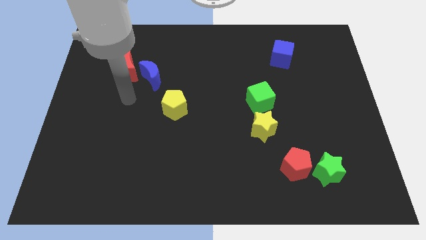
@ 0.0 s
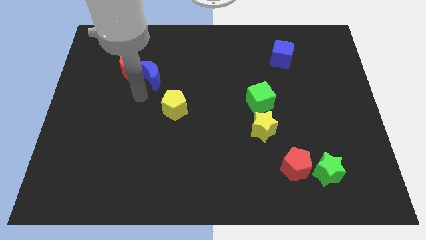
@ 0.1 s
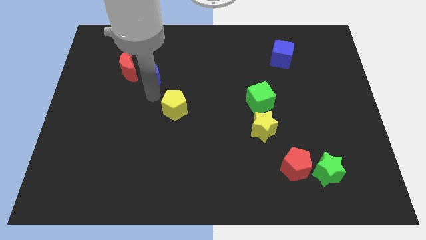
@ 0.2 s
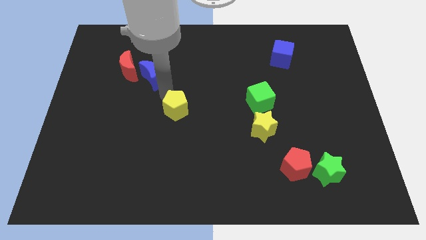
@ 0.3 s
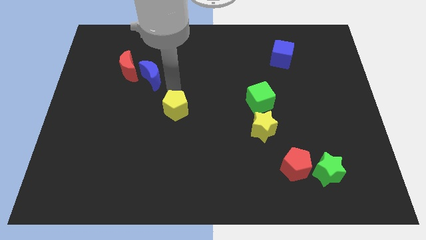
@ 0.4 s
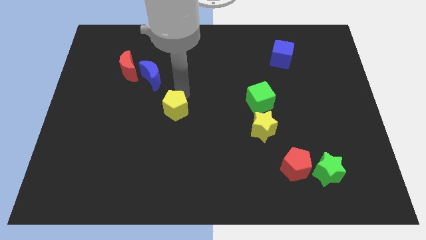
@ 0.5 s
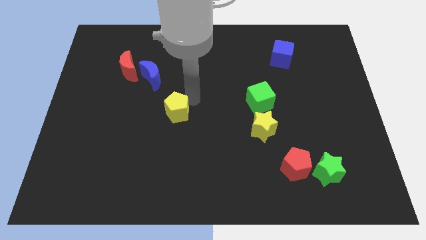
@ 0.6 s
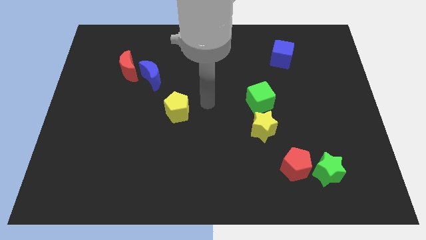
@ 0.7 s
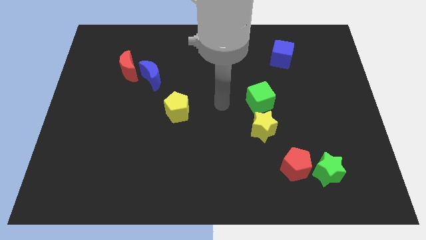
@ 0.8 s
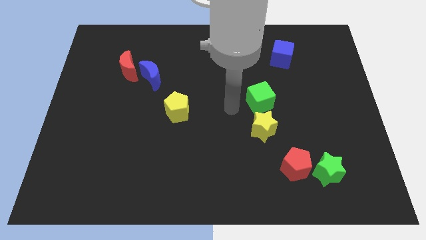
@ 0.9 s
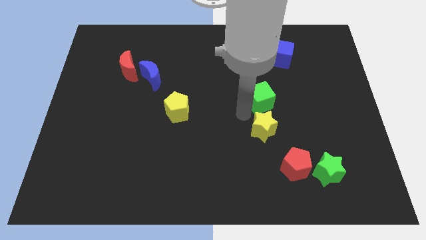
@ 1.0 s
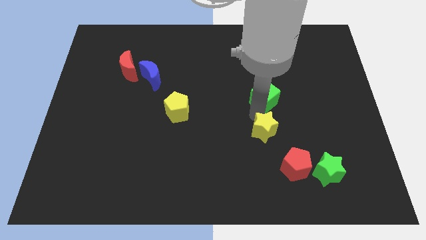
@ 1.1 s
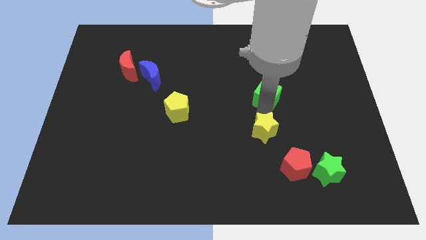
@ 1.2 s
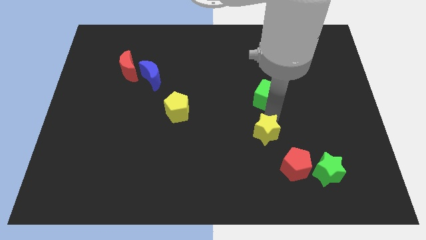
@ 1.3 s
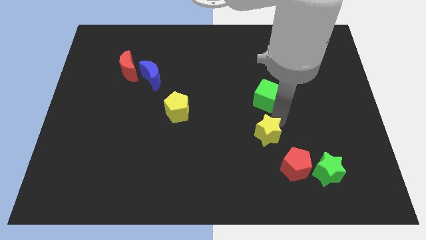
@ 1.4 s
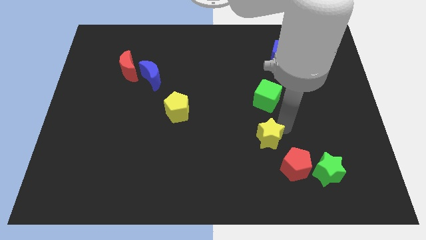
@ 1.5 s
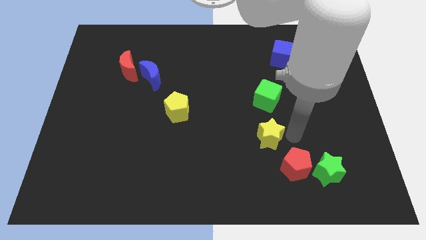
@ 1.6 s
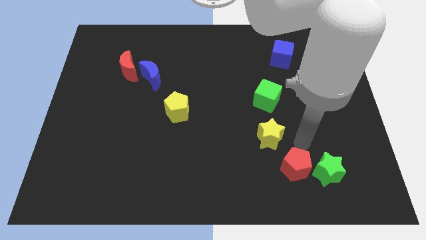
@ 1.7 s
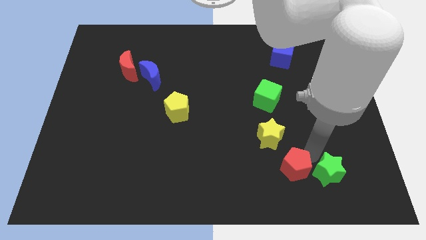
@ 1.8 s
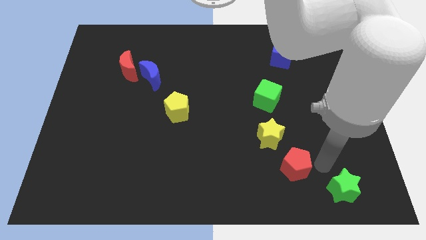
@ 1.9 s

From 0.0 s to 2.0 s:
pull the red pentagon apart from the green star

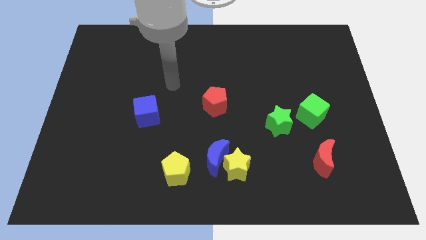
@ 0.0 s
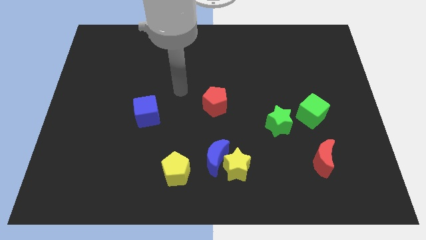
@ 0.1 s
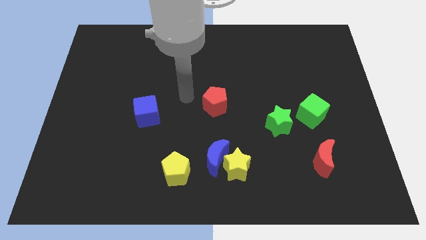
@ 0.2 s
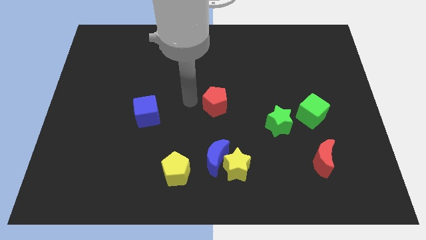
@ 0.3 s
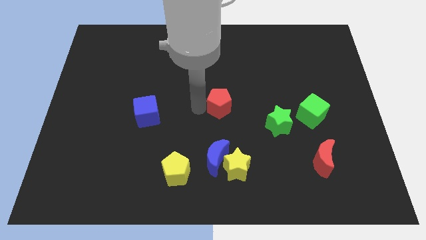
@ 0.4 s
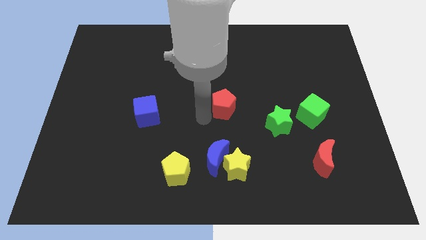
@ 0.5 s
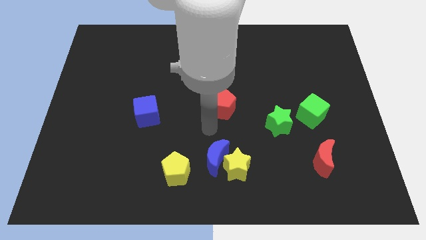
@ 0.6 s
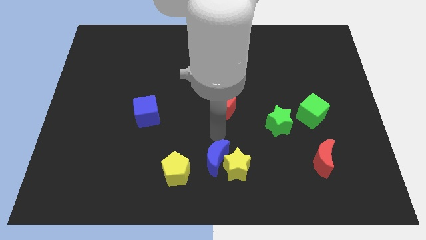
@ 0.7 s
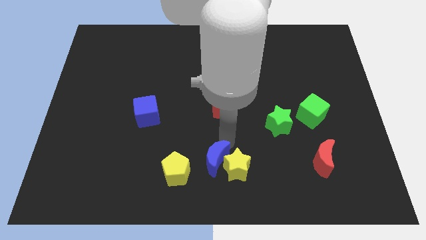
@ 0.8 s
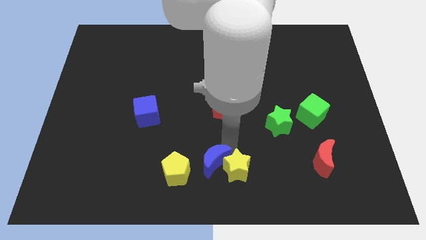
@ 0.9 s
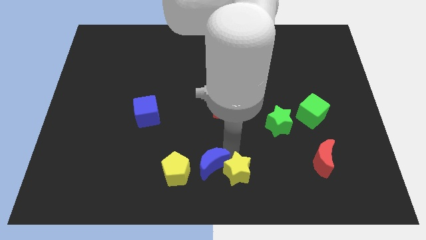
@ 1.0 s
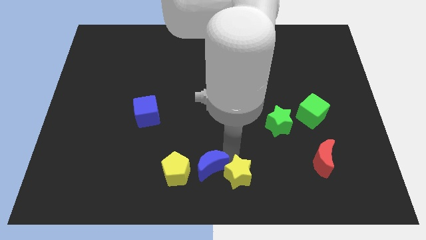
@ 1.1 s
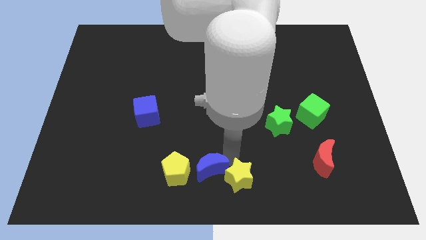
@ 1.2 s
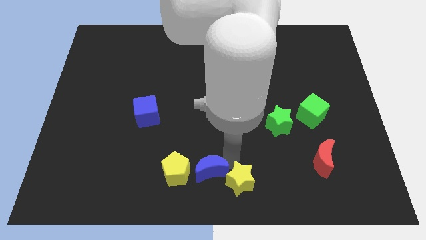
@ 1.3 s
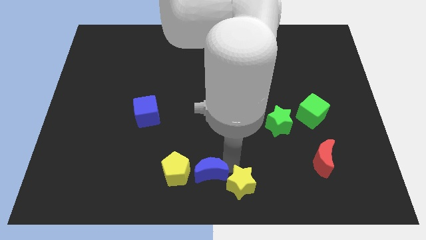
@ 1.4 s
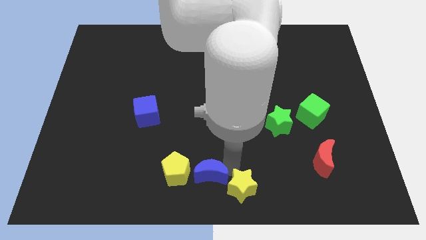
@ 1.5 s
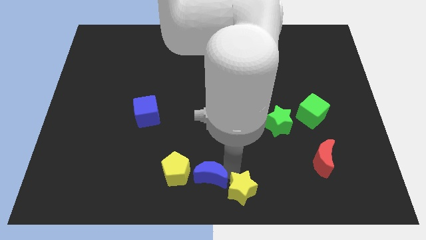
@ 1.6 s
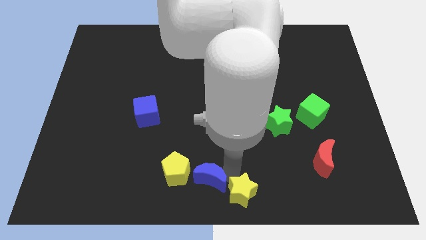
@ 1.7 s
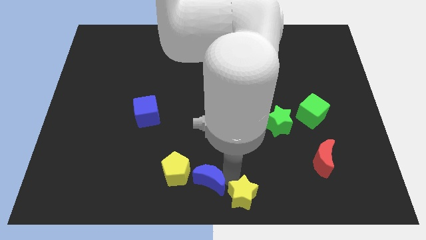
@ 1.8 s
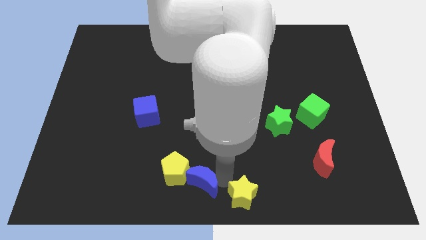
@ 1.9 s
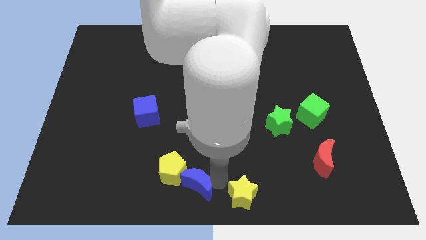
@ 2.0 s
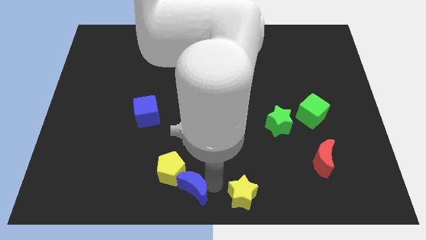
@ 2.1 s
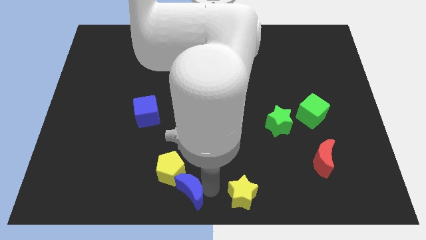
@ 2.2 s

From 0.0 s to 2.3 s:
separate the yellow star from the blue moon

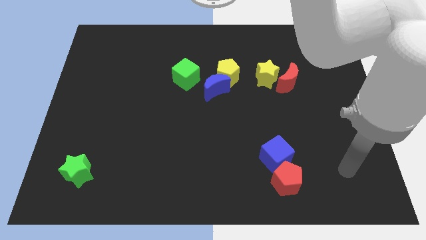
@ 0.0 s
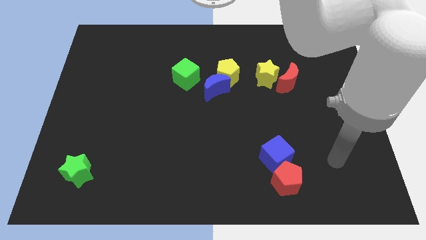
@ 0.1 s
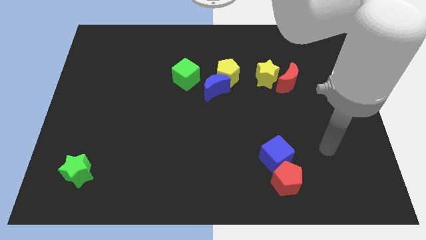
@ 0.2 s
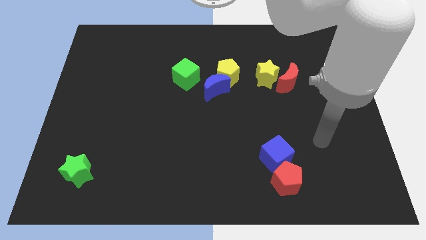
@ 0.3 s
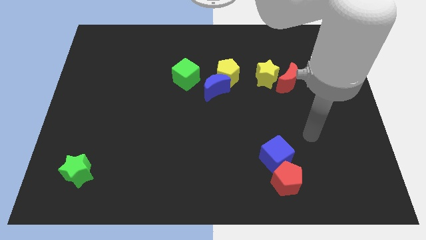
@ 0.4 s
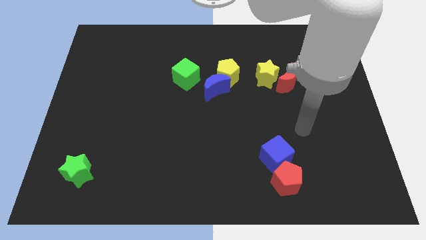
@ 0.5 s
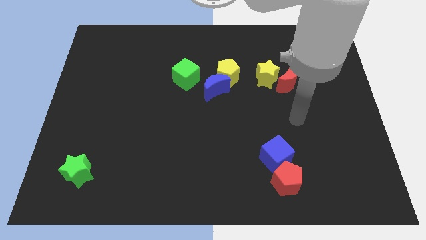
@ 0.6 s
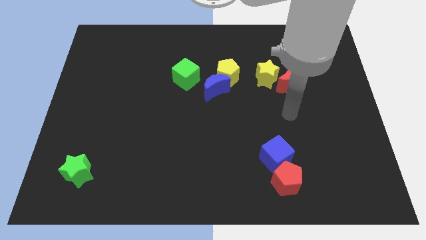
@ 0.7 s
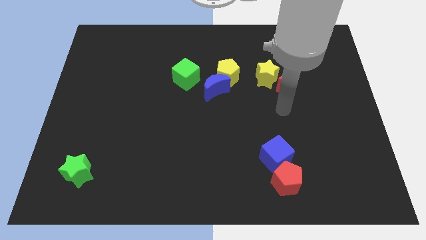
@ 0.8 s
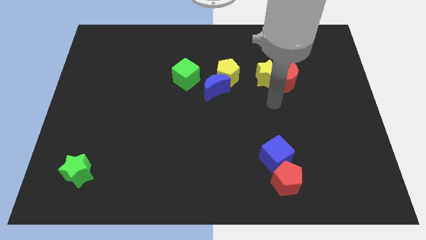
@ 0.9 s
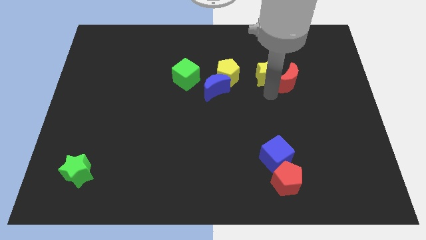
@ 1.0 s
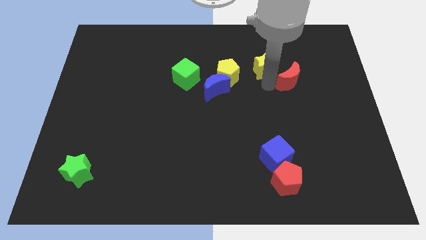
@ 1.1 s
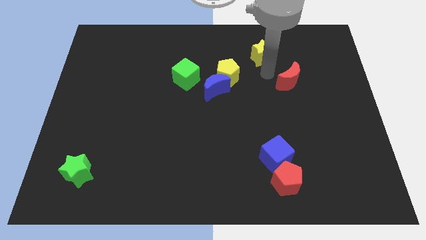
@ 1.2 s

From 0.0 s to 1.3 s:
pull the red moon apart from the yellow star

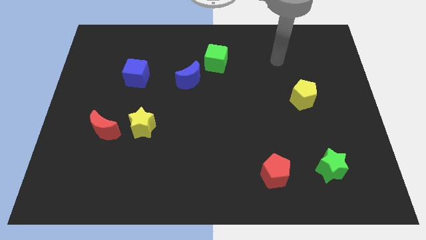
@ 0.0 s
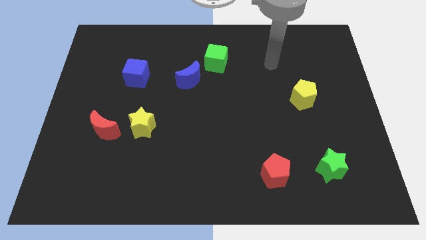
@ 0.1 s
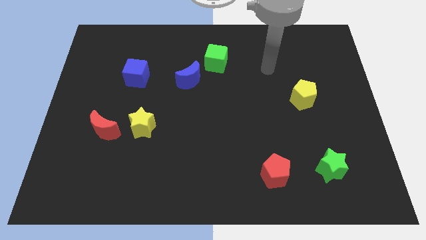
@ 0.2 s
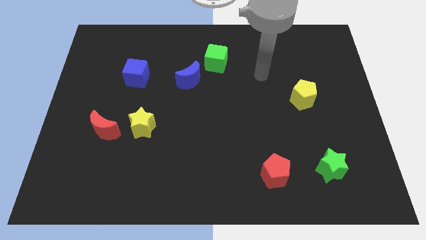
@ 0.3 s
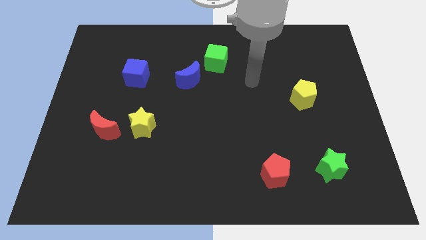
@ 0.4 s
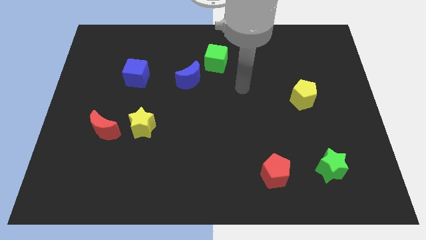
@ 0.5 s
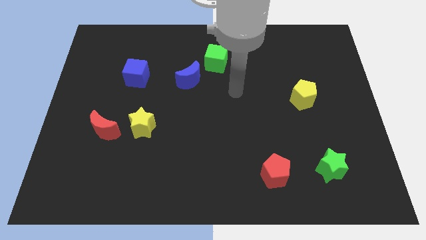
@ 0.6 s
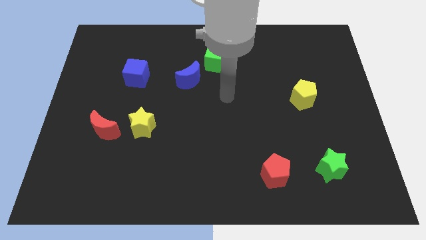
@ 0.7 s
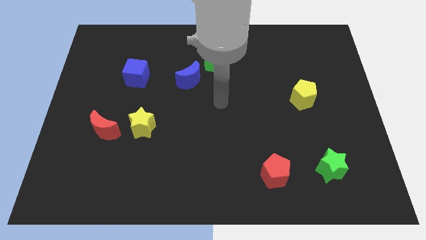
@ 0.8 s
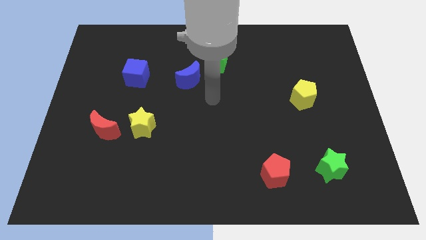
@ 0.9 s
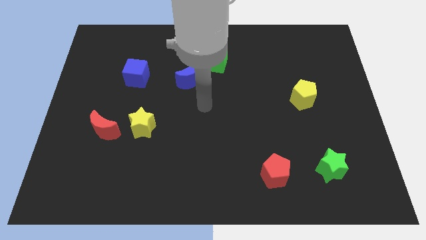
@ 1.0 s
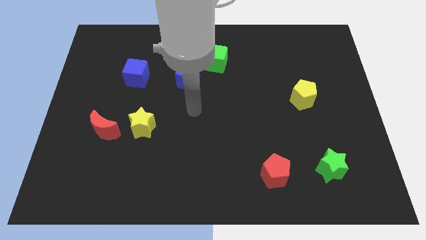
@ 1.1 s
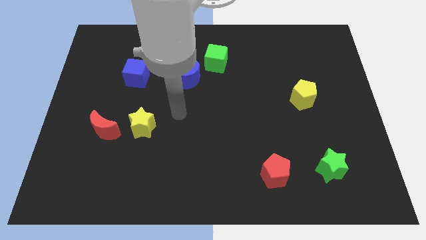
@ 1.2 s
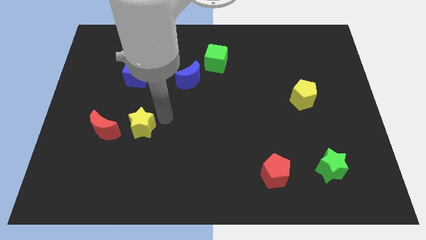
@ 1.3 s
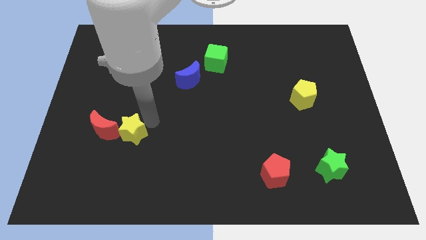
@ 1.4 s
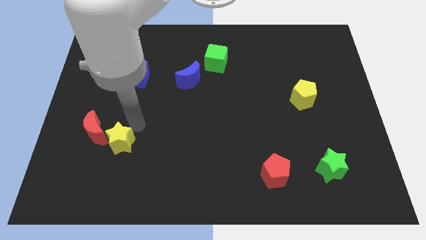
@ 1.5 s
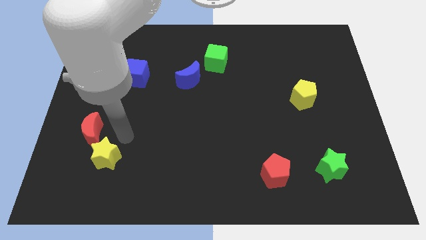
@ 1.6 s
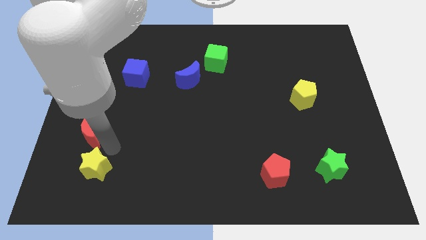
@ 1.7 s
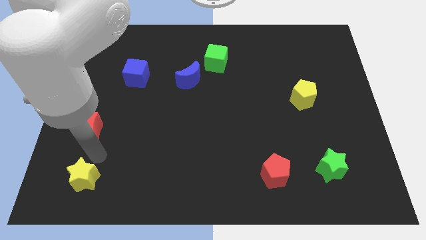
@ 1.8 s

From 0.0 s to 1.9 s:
separate the red moon from the yellow star

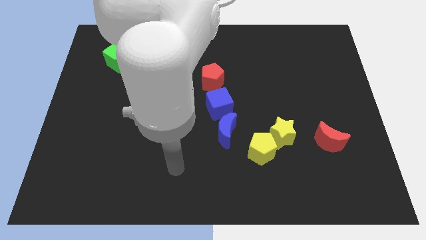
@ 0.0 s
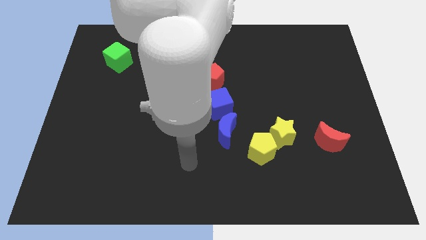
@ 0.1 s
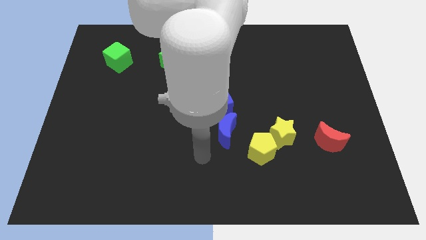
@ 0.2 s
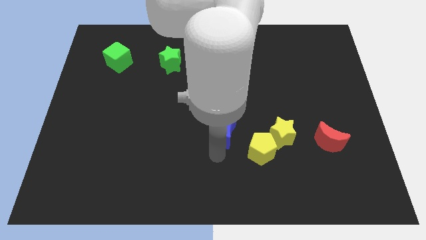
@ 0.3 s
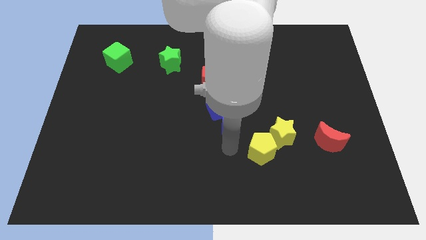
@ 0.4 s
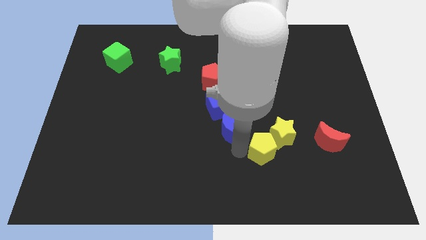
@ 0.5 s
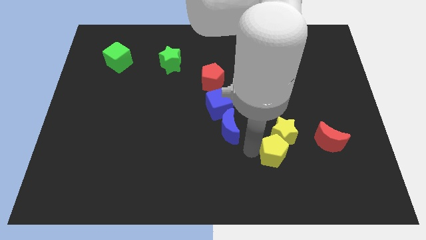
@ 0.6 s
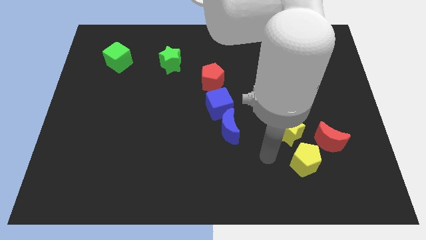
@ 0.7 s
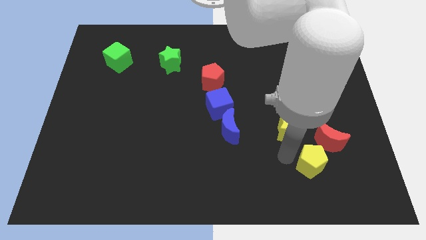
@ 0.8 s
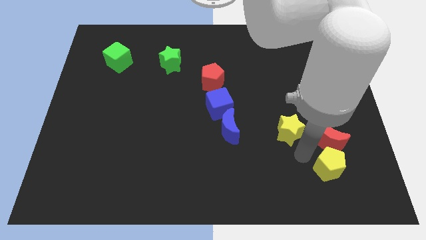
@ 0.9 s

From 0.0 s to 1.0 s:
move the yellow star away from the yellow pentagon

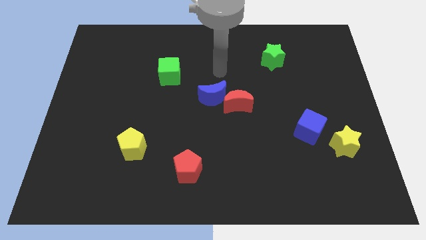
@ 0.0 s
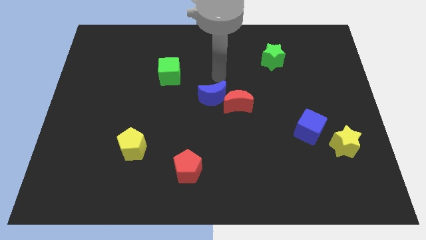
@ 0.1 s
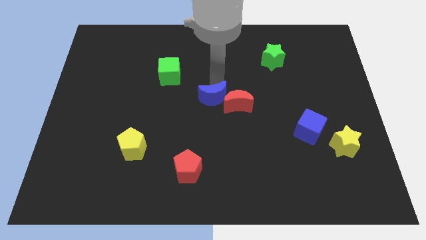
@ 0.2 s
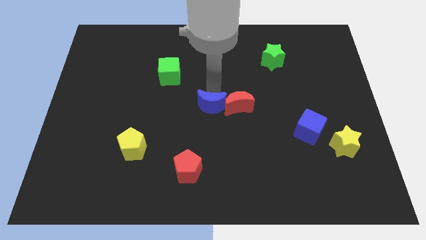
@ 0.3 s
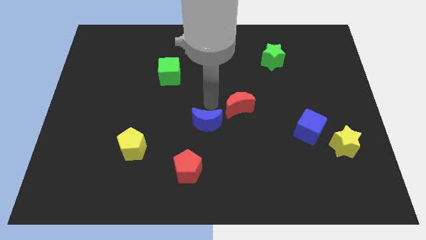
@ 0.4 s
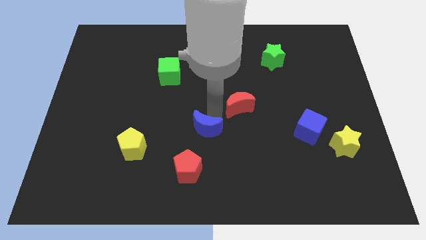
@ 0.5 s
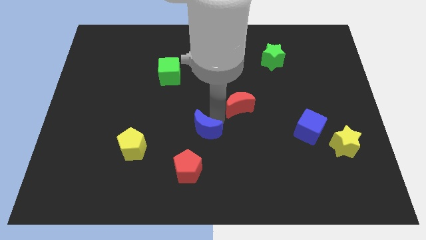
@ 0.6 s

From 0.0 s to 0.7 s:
pull the red moon apart from the blue moon
